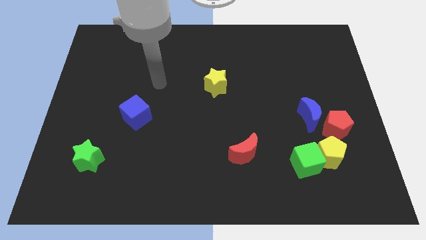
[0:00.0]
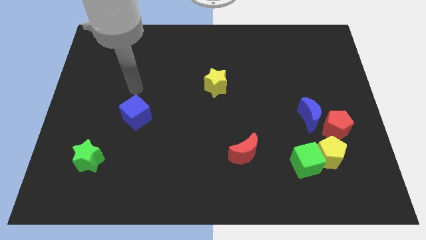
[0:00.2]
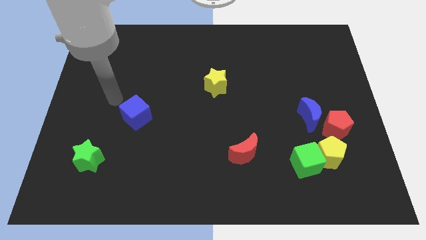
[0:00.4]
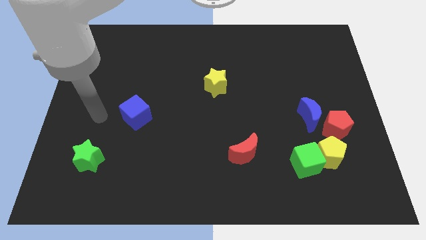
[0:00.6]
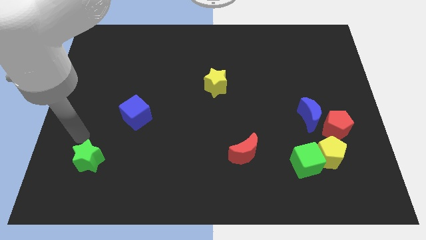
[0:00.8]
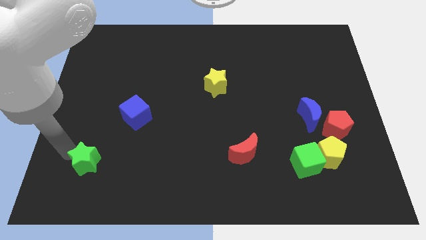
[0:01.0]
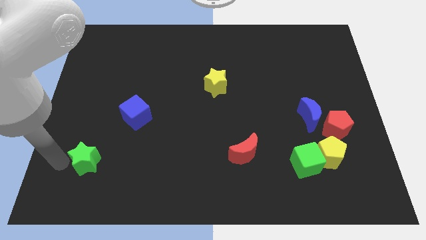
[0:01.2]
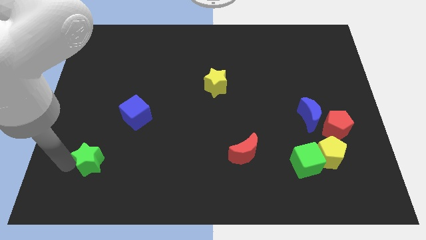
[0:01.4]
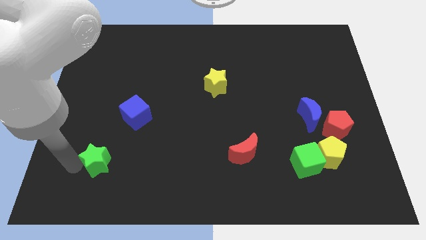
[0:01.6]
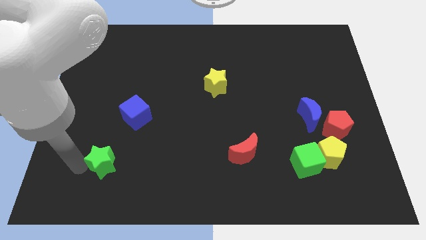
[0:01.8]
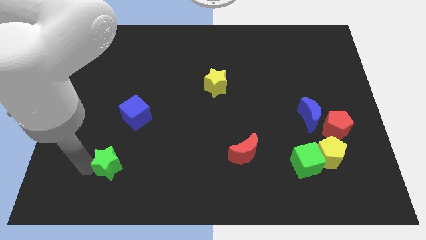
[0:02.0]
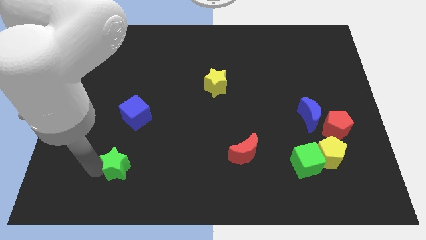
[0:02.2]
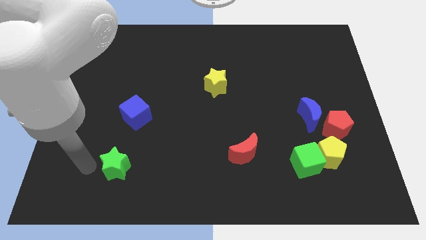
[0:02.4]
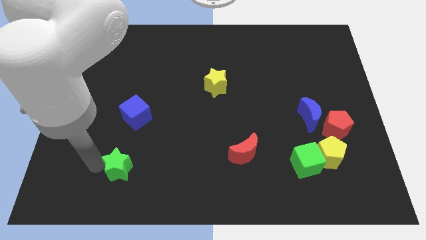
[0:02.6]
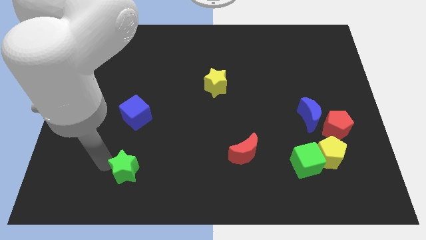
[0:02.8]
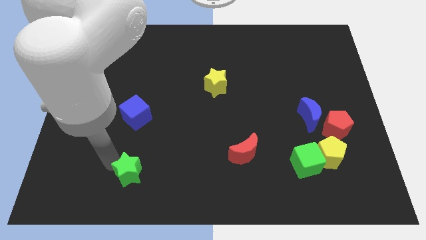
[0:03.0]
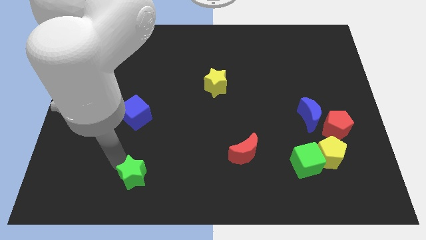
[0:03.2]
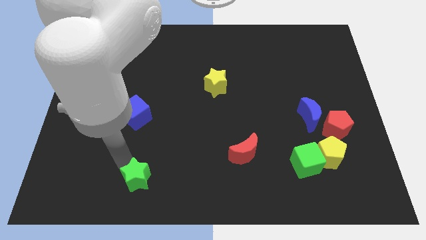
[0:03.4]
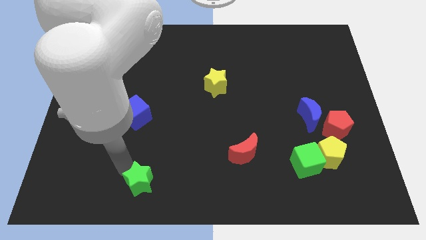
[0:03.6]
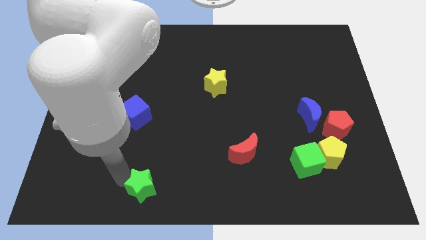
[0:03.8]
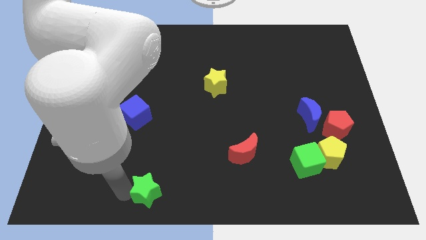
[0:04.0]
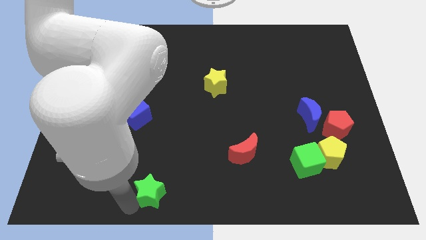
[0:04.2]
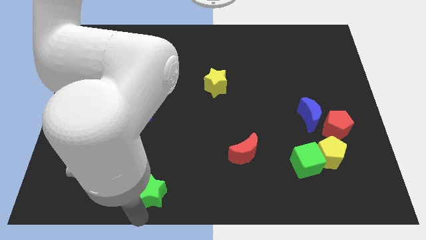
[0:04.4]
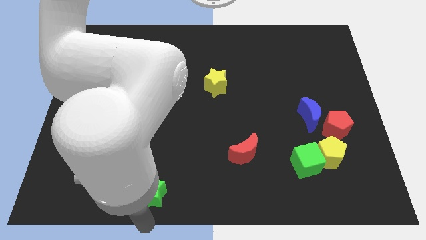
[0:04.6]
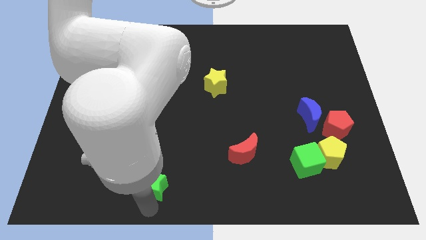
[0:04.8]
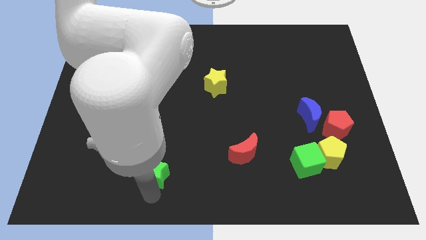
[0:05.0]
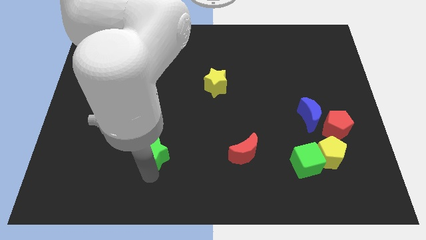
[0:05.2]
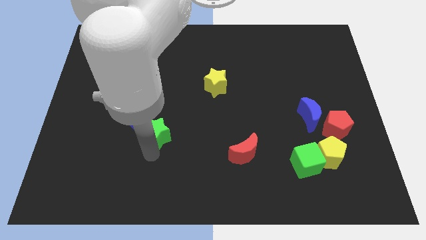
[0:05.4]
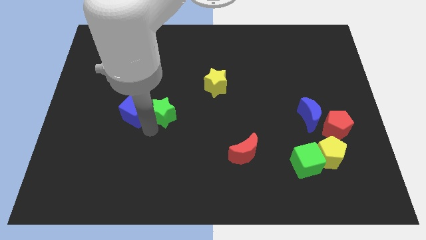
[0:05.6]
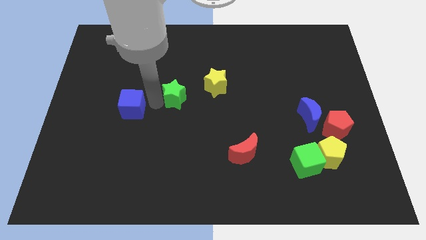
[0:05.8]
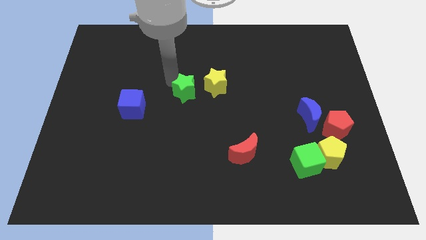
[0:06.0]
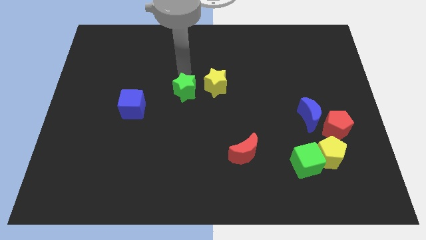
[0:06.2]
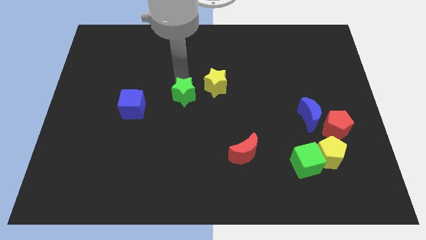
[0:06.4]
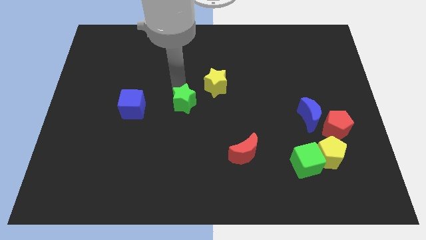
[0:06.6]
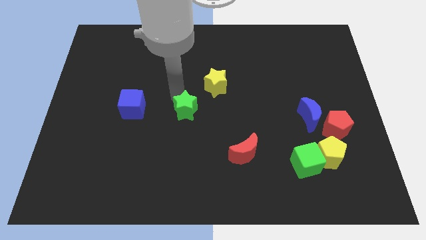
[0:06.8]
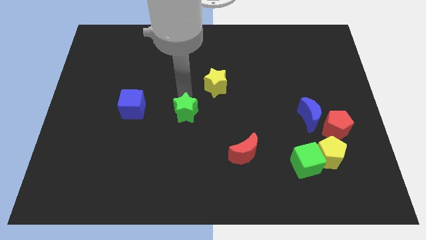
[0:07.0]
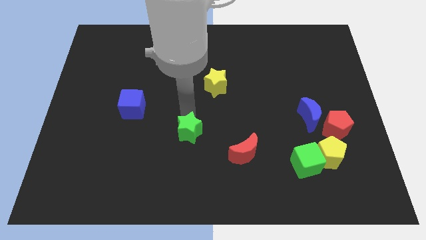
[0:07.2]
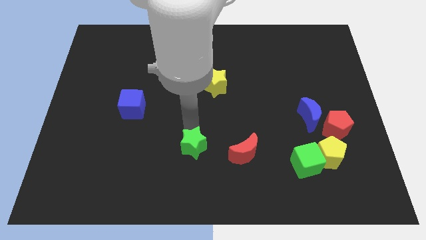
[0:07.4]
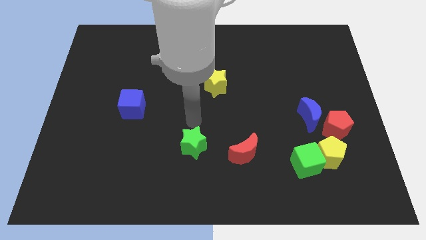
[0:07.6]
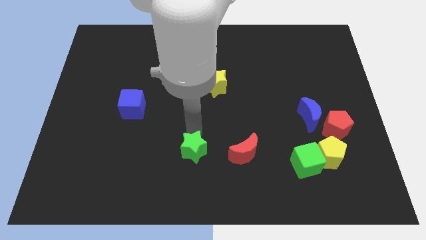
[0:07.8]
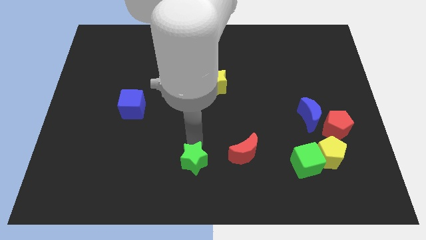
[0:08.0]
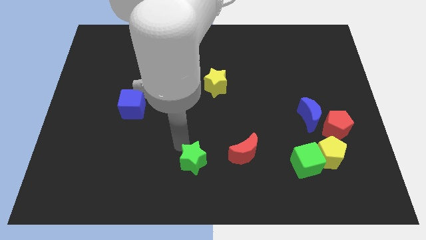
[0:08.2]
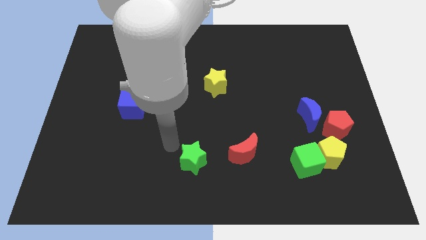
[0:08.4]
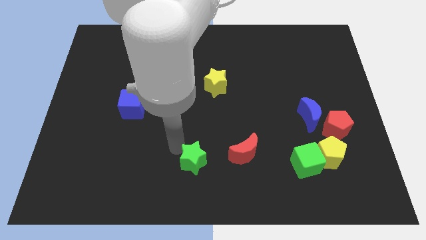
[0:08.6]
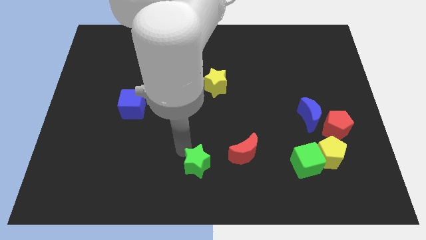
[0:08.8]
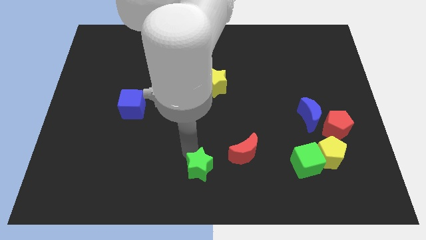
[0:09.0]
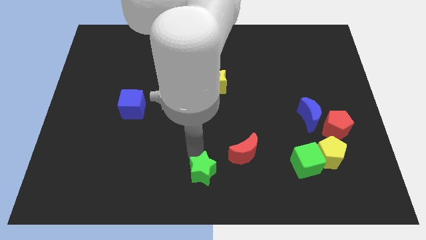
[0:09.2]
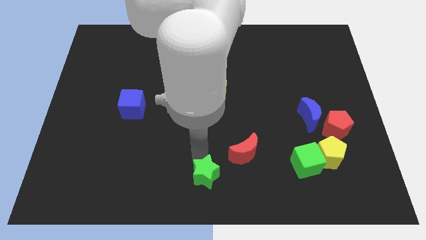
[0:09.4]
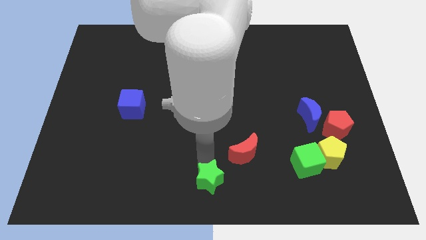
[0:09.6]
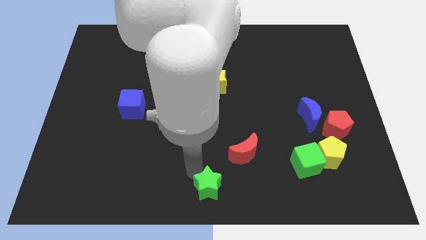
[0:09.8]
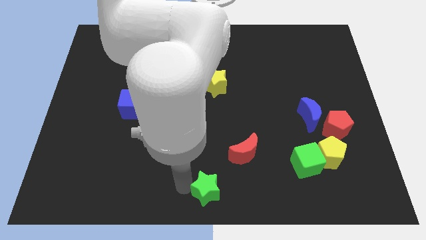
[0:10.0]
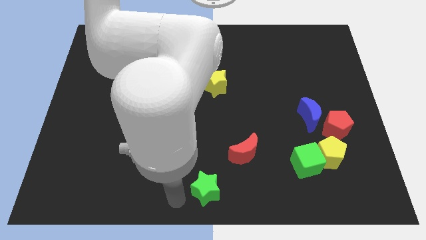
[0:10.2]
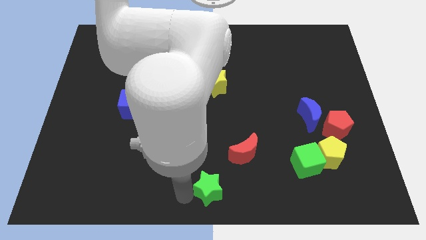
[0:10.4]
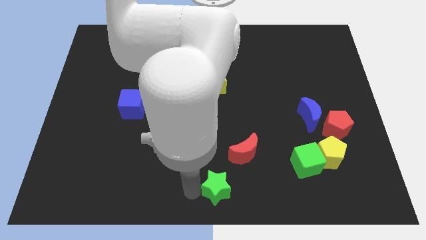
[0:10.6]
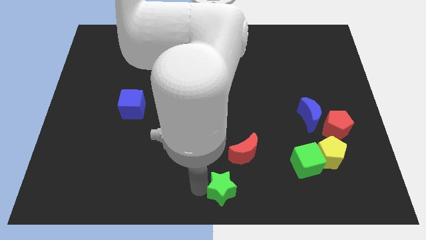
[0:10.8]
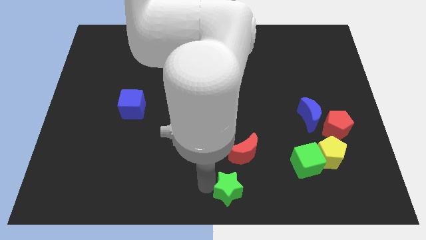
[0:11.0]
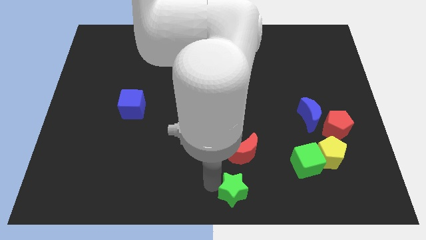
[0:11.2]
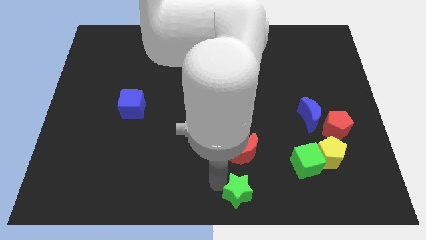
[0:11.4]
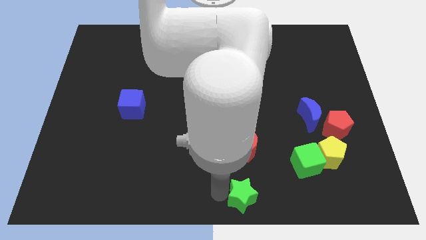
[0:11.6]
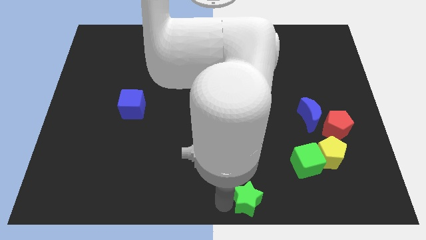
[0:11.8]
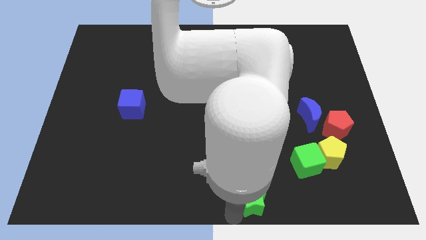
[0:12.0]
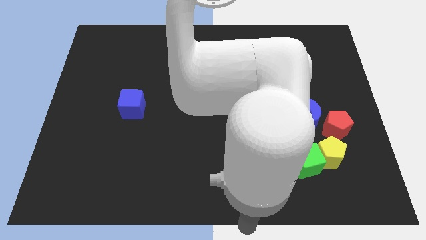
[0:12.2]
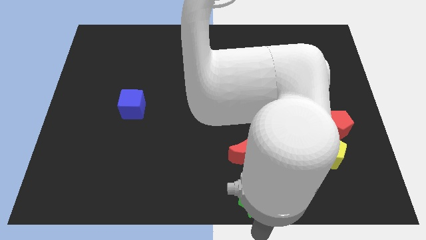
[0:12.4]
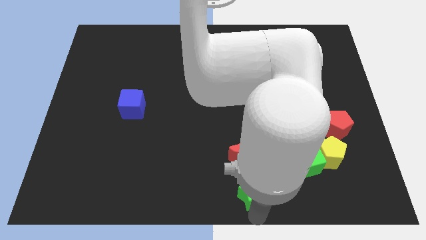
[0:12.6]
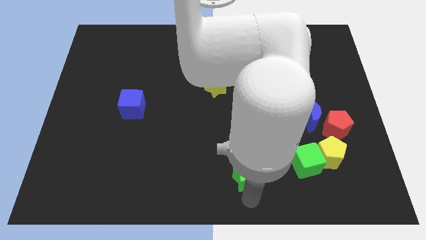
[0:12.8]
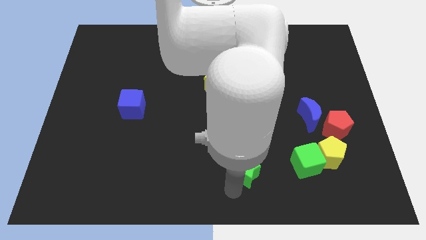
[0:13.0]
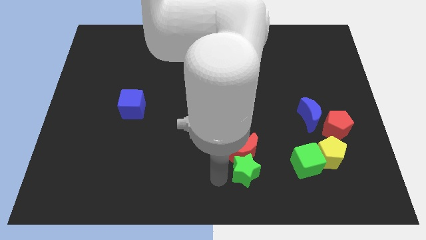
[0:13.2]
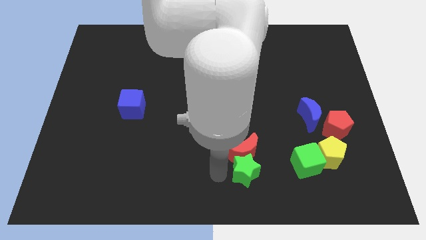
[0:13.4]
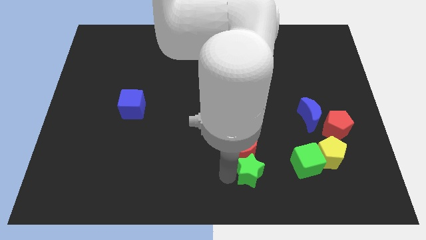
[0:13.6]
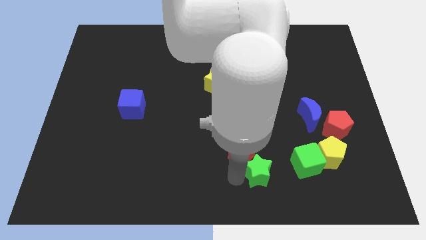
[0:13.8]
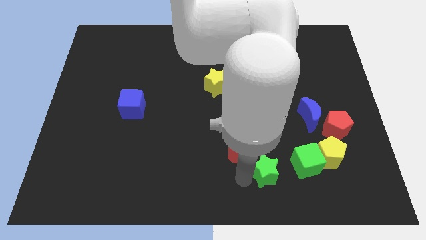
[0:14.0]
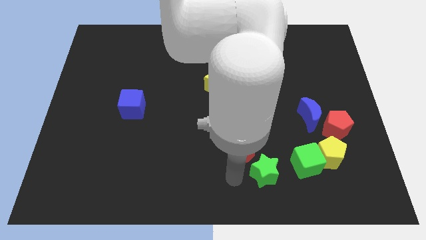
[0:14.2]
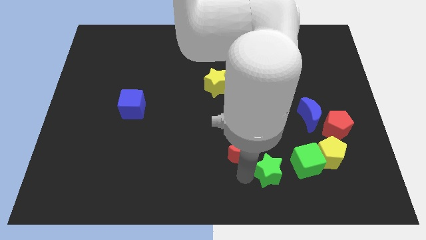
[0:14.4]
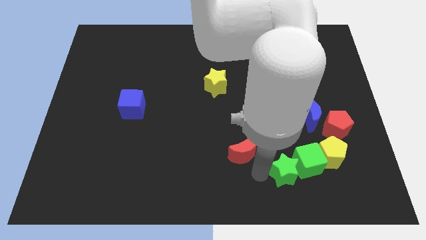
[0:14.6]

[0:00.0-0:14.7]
move the green star to the green cube

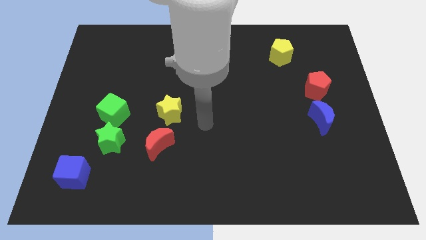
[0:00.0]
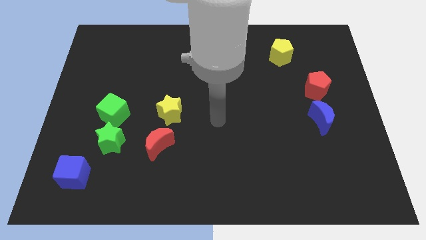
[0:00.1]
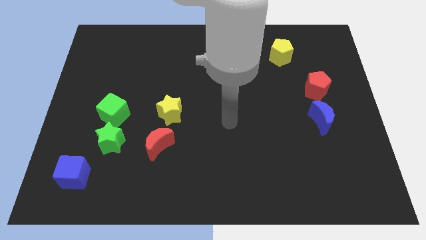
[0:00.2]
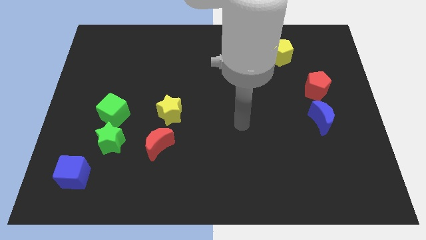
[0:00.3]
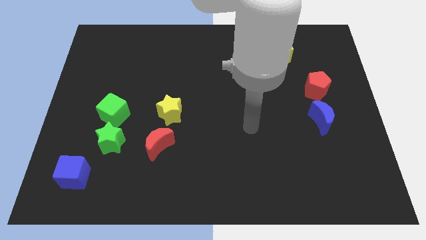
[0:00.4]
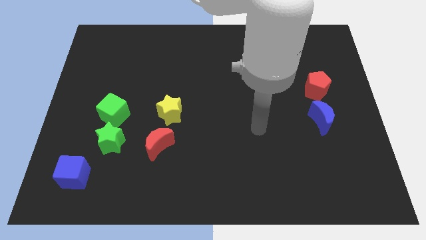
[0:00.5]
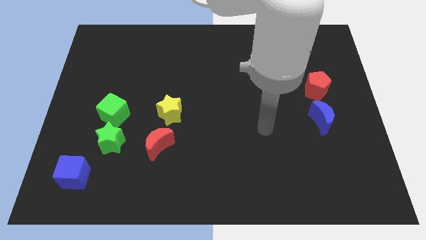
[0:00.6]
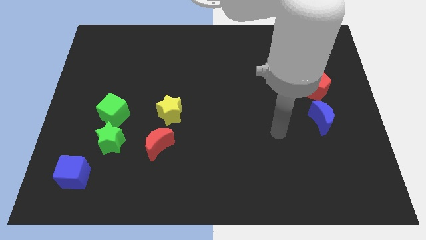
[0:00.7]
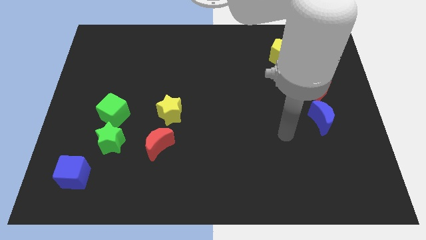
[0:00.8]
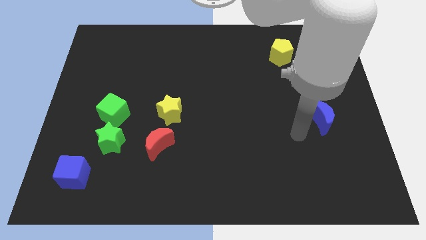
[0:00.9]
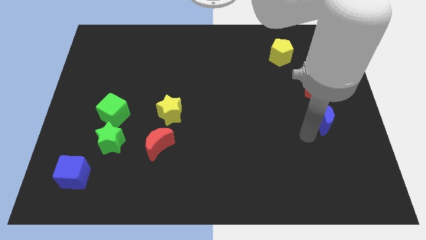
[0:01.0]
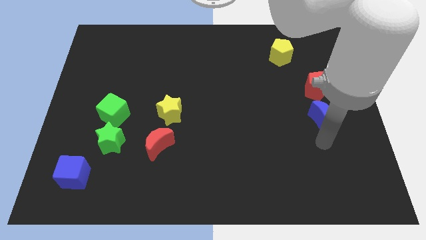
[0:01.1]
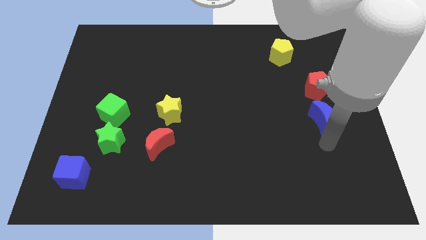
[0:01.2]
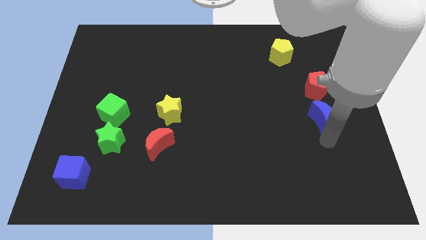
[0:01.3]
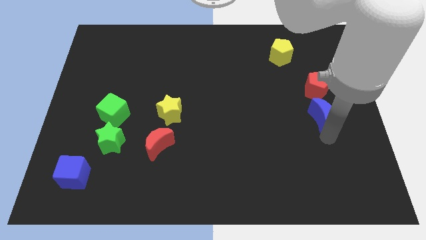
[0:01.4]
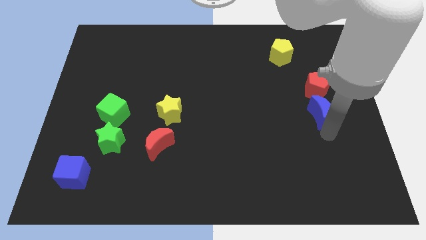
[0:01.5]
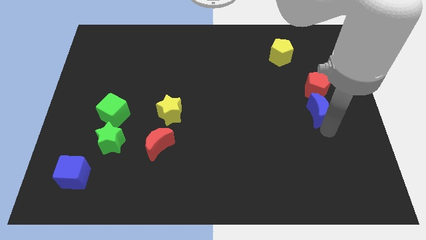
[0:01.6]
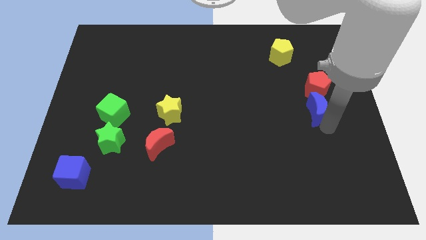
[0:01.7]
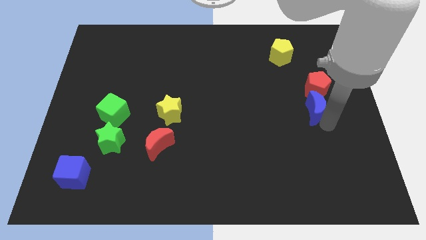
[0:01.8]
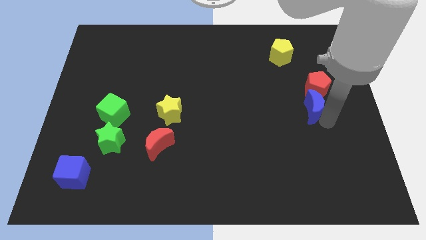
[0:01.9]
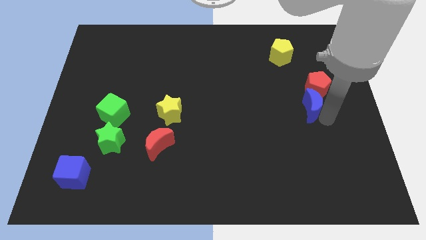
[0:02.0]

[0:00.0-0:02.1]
push the blue moon close to the red pentagon
